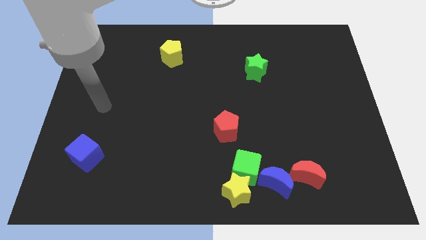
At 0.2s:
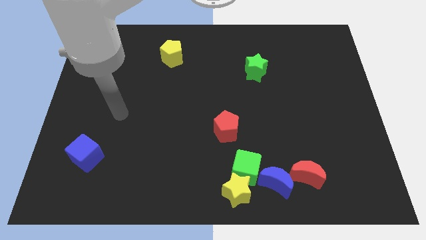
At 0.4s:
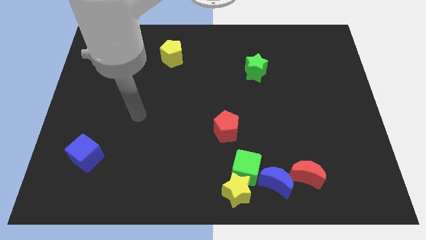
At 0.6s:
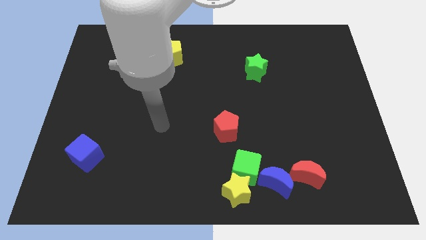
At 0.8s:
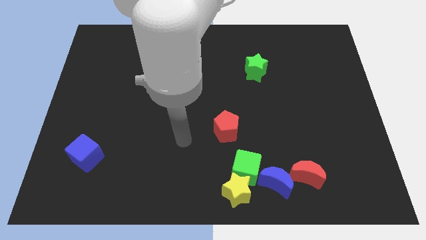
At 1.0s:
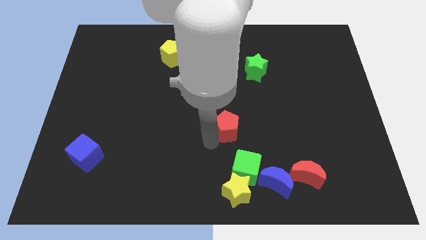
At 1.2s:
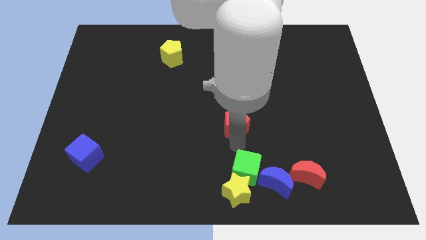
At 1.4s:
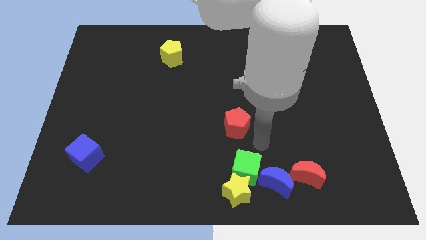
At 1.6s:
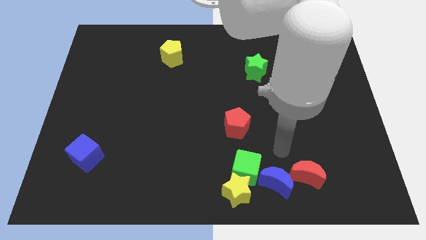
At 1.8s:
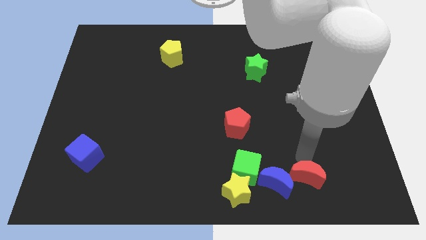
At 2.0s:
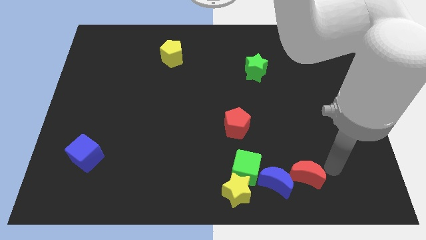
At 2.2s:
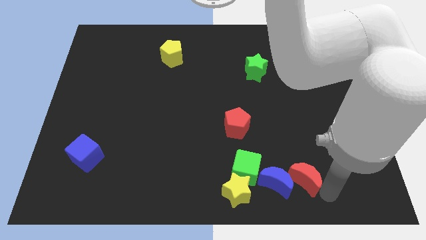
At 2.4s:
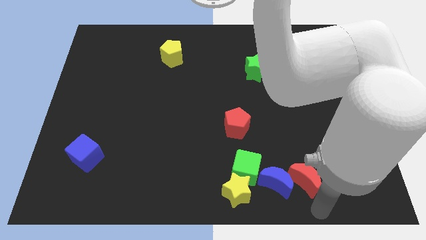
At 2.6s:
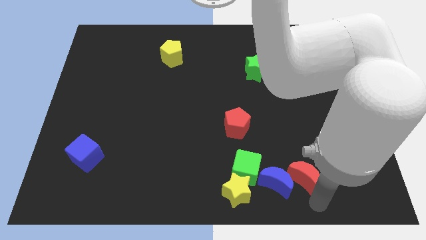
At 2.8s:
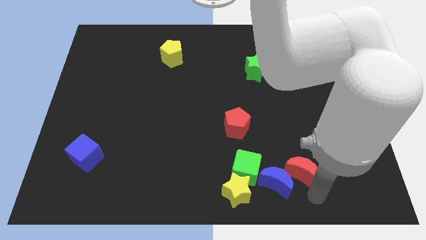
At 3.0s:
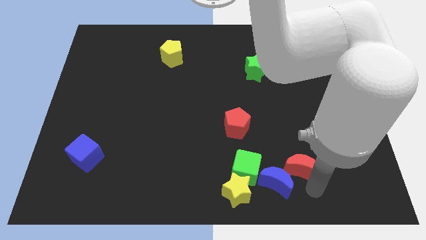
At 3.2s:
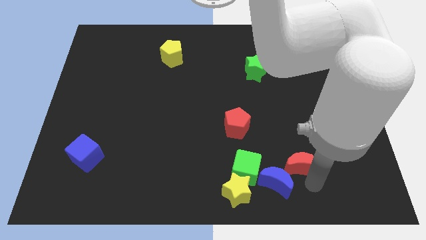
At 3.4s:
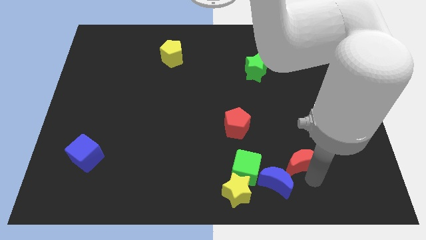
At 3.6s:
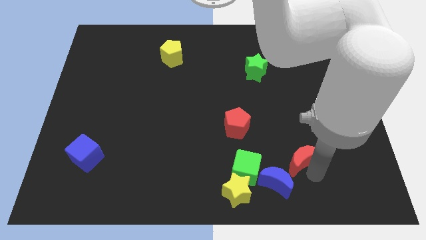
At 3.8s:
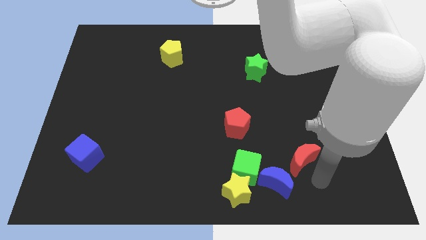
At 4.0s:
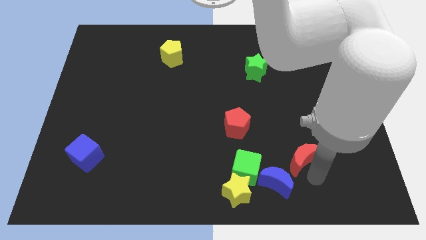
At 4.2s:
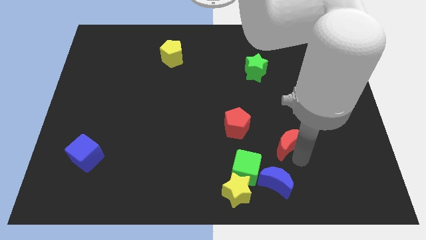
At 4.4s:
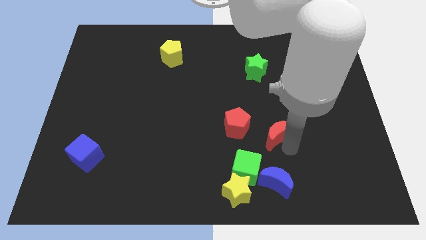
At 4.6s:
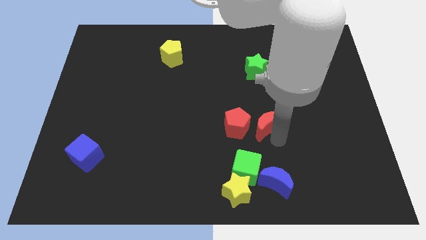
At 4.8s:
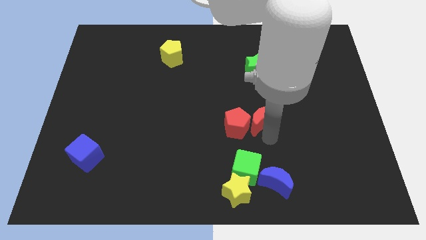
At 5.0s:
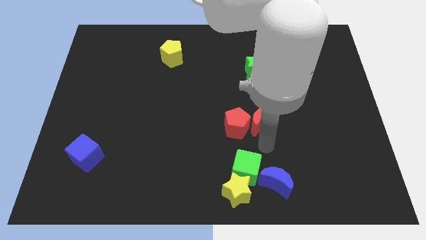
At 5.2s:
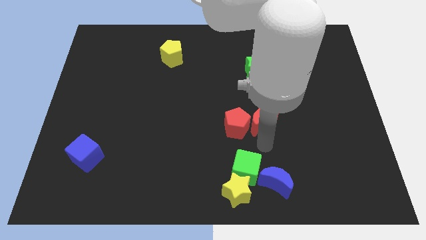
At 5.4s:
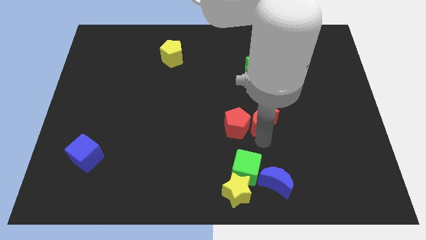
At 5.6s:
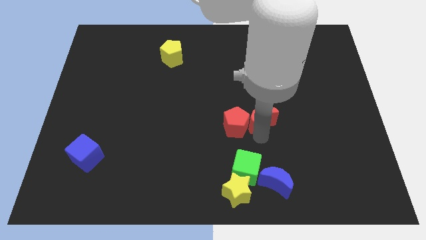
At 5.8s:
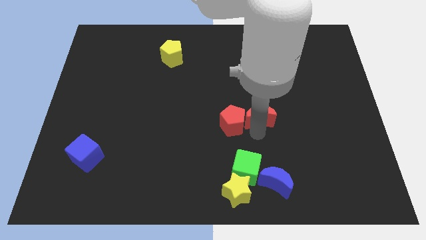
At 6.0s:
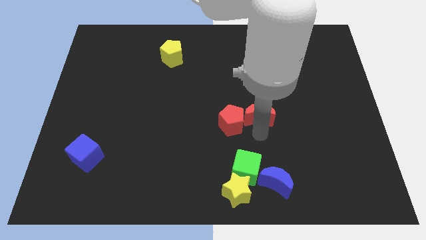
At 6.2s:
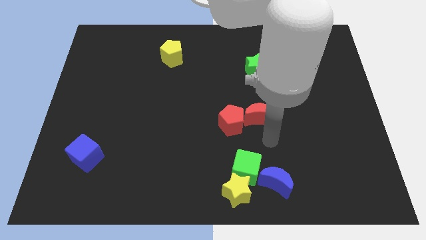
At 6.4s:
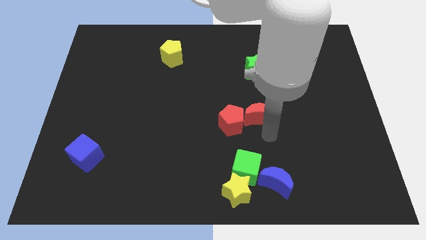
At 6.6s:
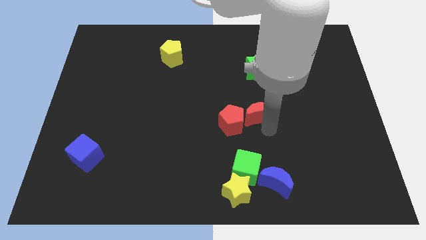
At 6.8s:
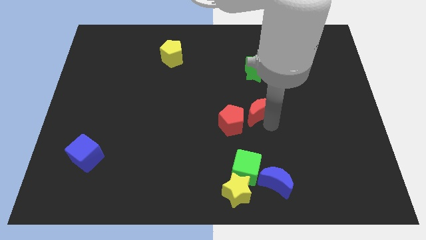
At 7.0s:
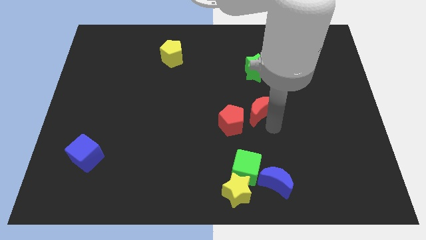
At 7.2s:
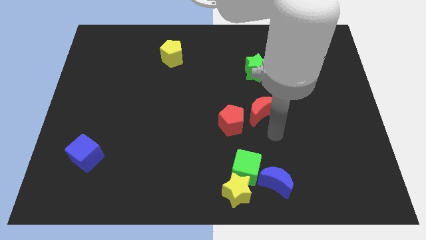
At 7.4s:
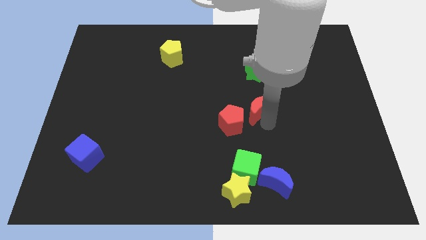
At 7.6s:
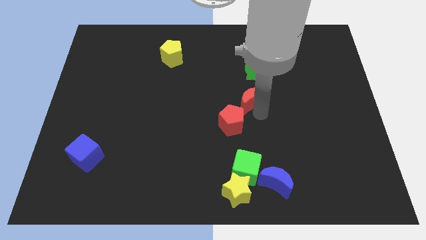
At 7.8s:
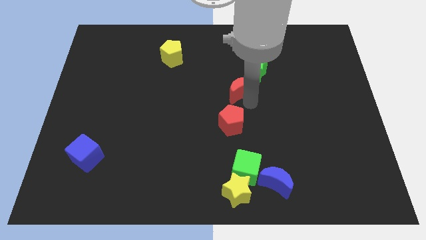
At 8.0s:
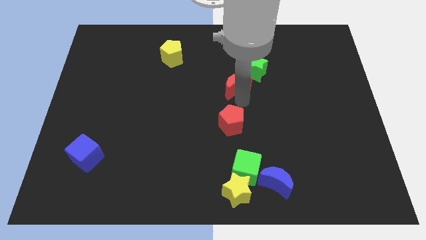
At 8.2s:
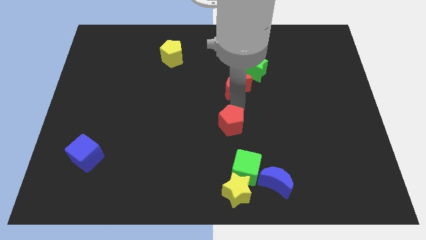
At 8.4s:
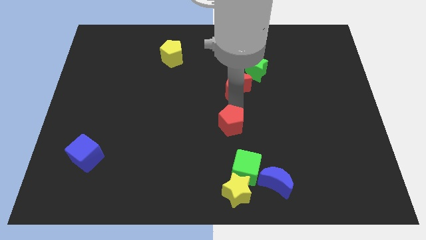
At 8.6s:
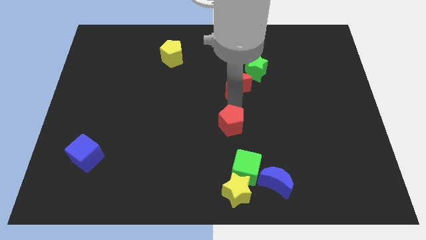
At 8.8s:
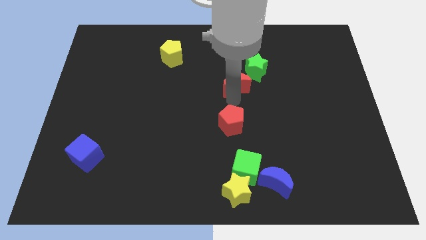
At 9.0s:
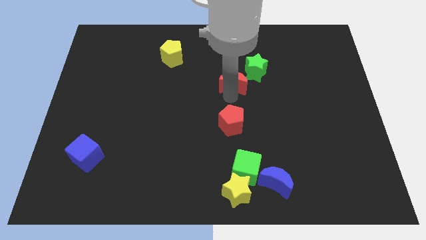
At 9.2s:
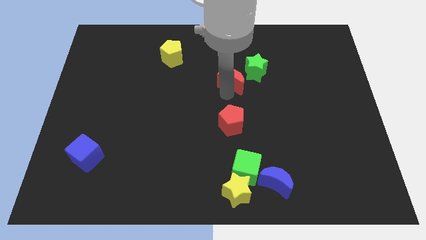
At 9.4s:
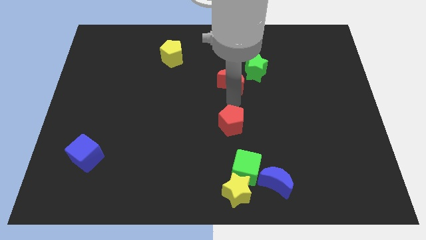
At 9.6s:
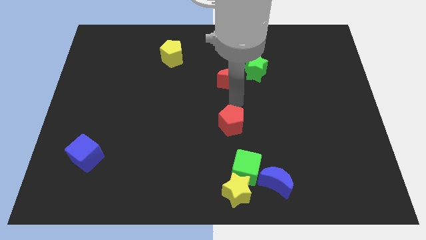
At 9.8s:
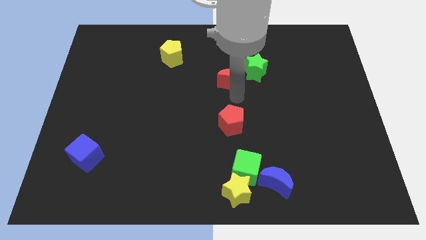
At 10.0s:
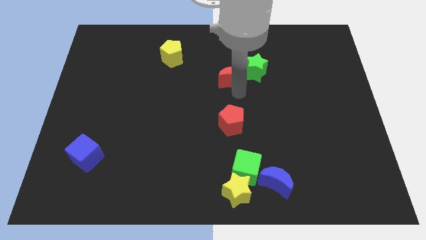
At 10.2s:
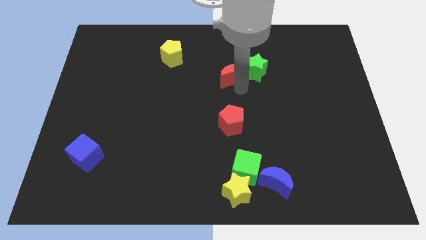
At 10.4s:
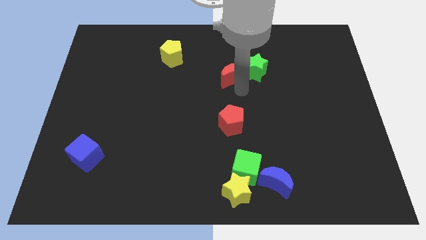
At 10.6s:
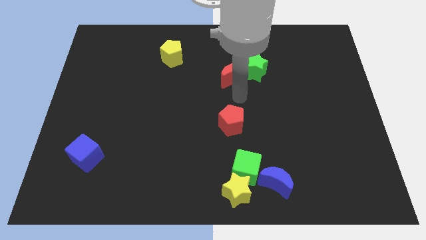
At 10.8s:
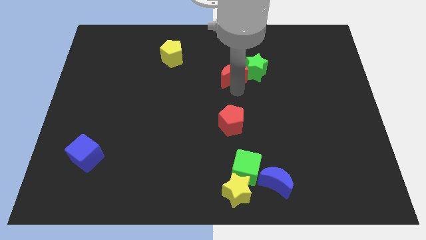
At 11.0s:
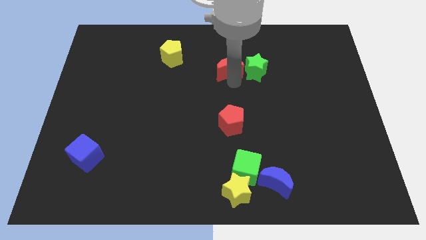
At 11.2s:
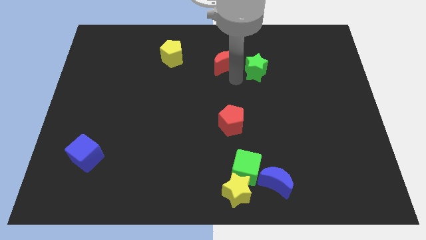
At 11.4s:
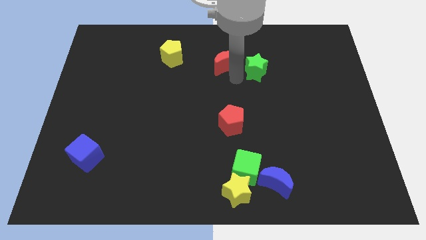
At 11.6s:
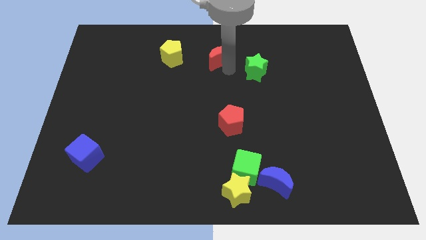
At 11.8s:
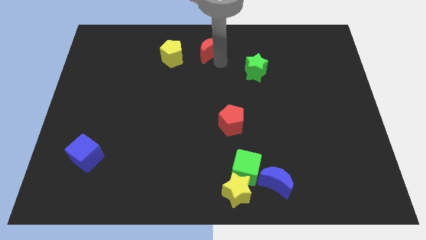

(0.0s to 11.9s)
slide the red moon to the towards your base

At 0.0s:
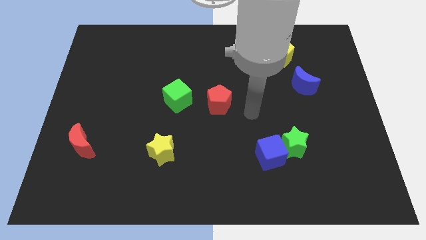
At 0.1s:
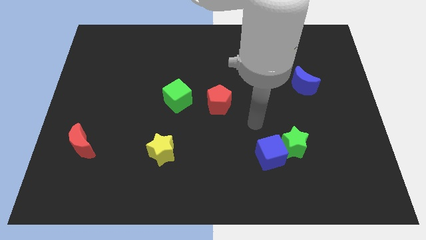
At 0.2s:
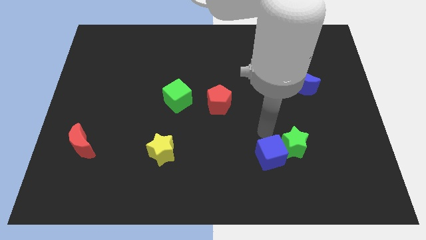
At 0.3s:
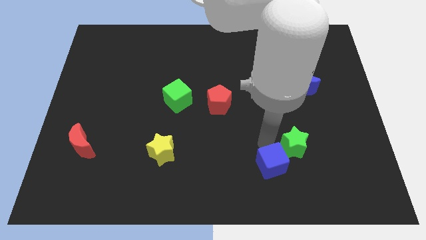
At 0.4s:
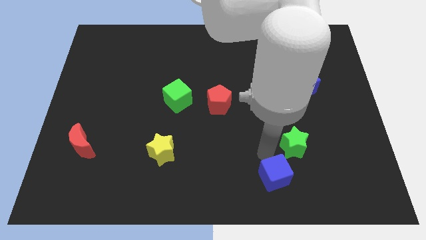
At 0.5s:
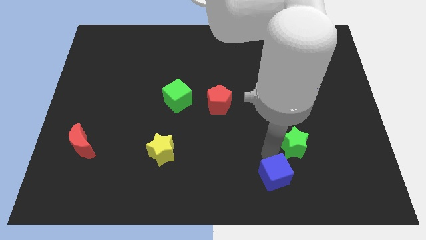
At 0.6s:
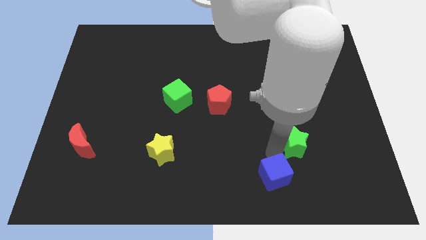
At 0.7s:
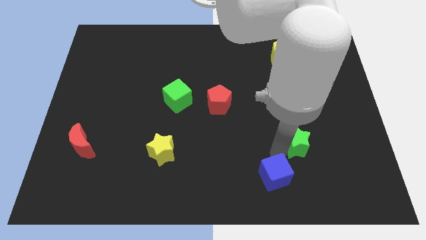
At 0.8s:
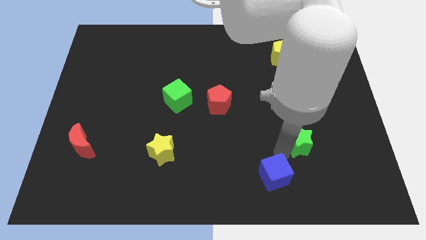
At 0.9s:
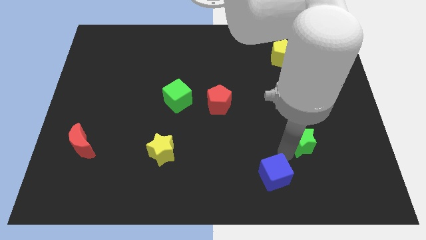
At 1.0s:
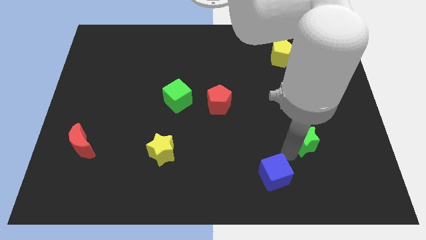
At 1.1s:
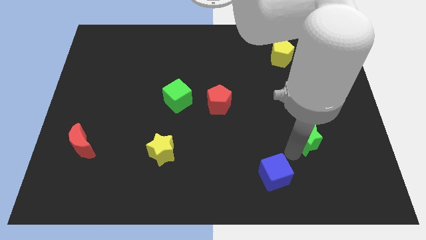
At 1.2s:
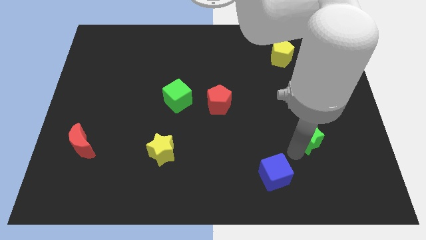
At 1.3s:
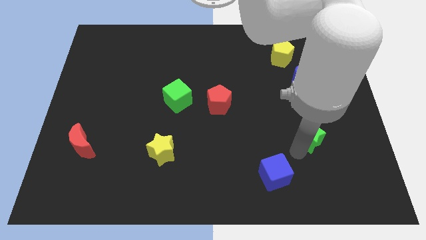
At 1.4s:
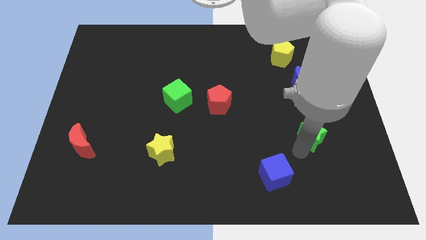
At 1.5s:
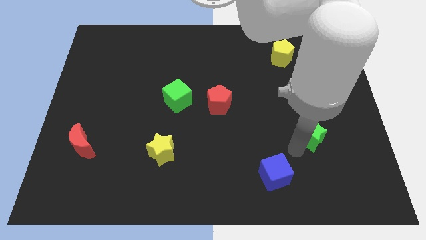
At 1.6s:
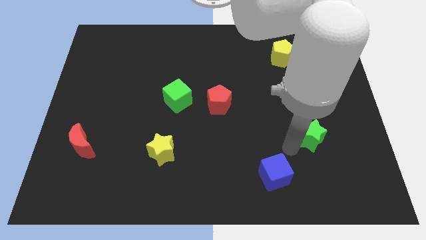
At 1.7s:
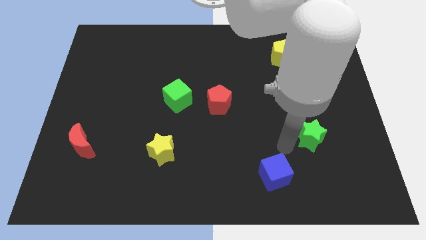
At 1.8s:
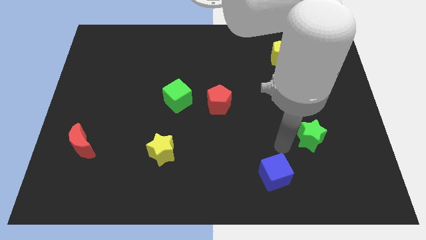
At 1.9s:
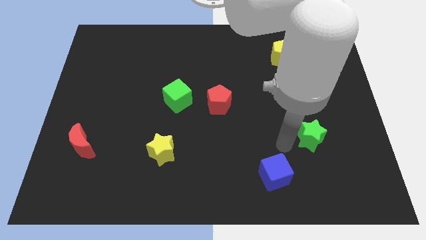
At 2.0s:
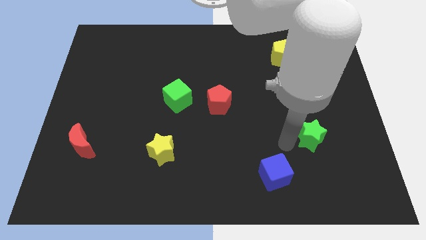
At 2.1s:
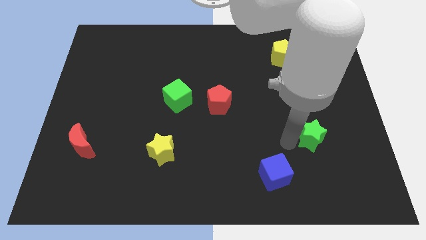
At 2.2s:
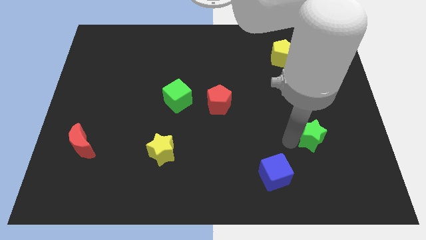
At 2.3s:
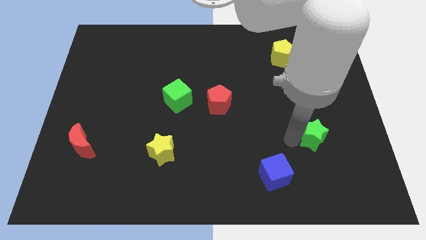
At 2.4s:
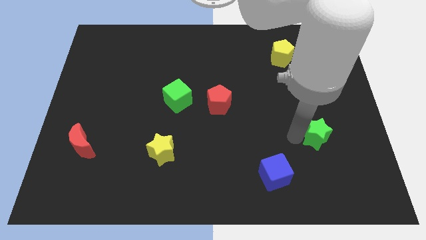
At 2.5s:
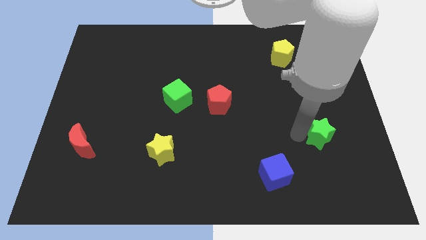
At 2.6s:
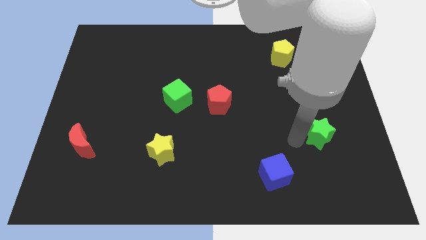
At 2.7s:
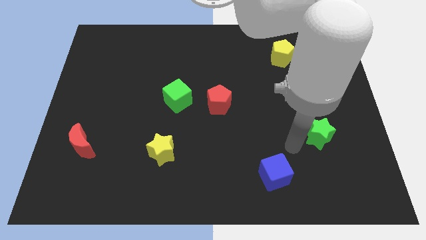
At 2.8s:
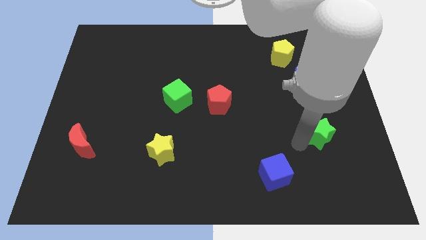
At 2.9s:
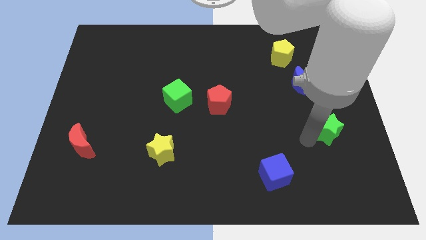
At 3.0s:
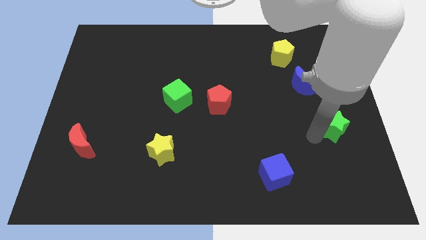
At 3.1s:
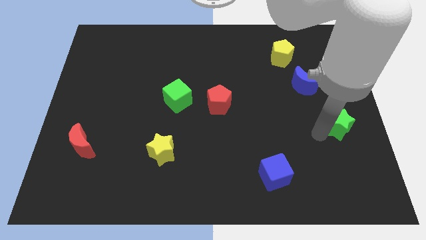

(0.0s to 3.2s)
put the green star to the right side
